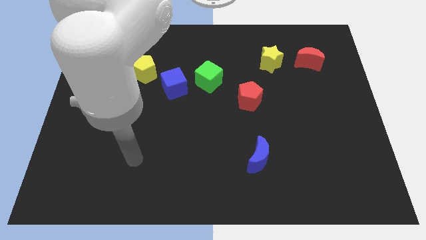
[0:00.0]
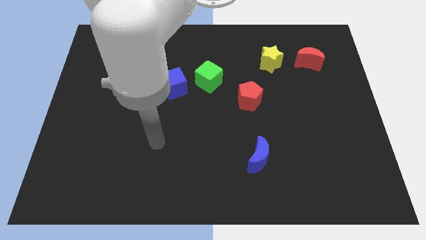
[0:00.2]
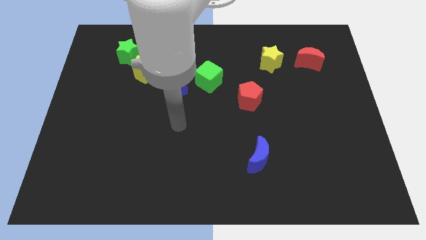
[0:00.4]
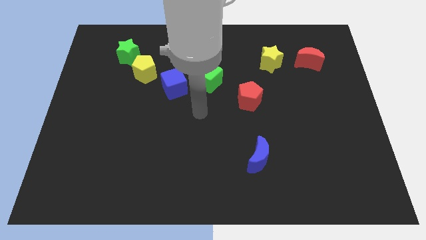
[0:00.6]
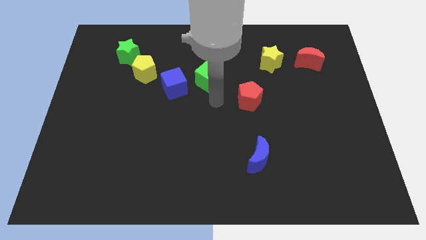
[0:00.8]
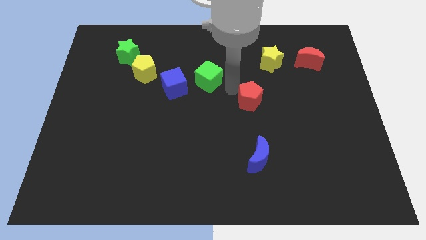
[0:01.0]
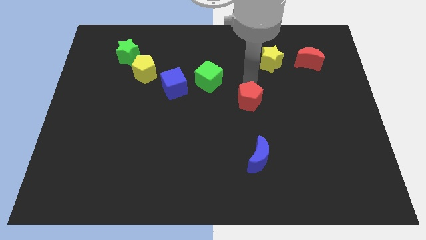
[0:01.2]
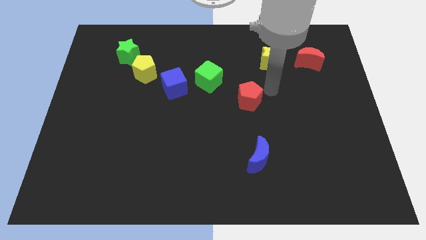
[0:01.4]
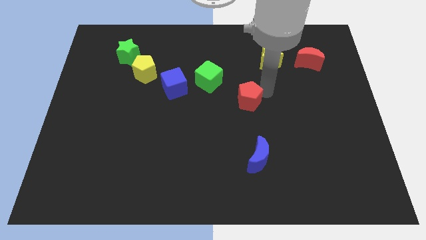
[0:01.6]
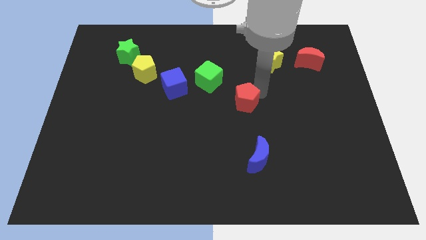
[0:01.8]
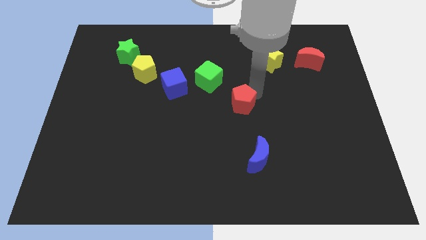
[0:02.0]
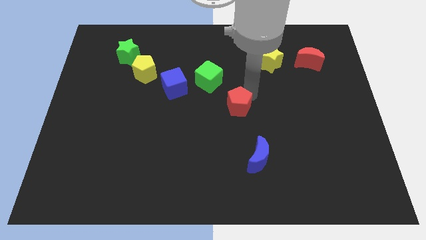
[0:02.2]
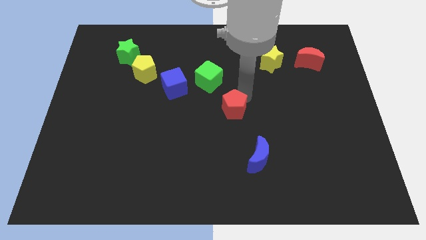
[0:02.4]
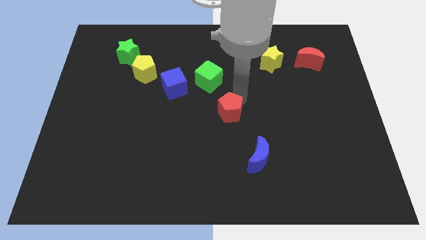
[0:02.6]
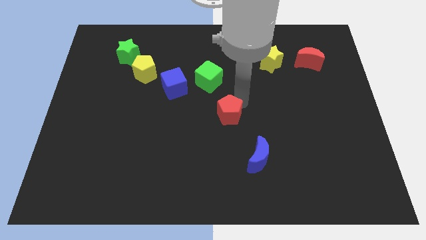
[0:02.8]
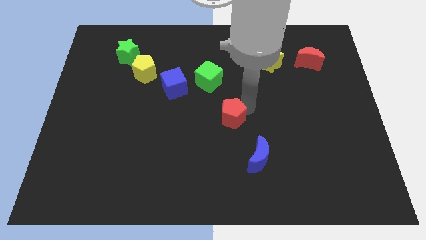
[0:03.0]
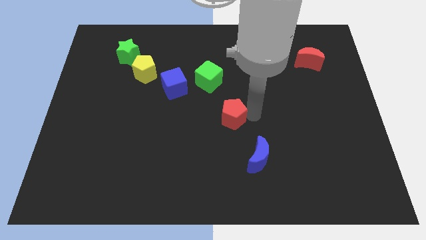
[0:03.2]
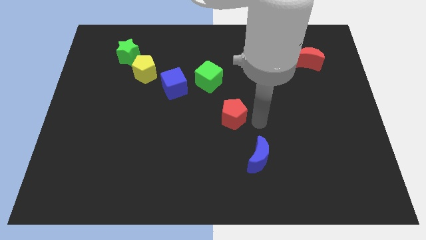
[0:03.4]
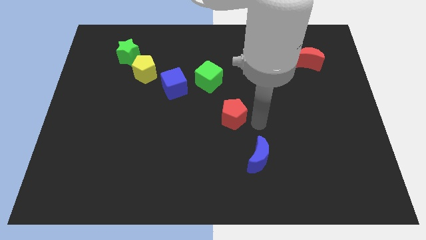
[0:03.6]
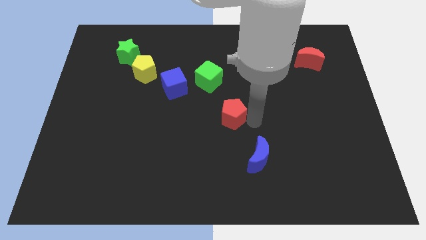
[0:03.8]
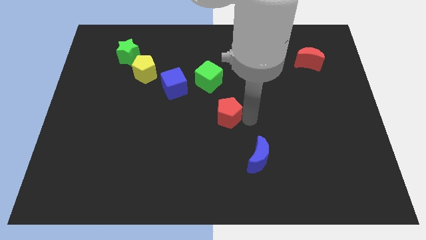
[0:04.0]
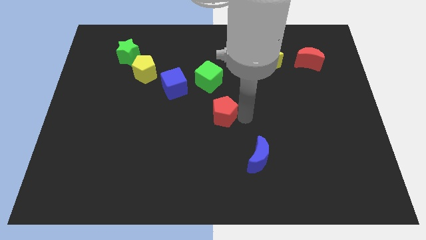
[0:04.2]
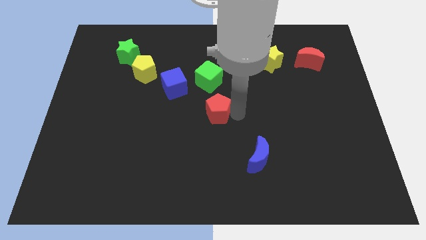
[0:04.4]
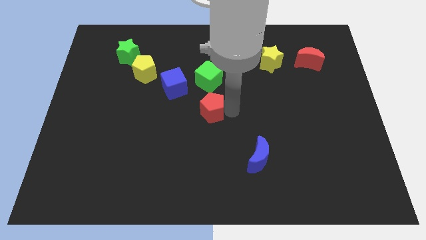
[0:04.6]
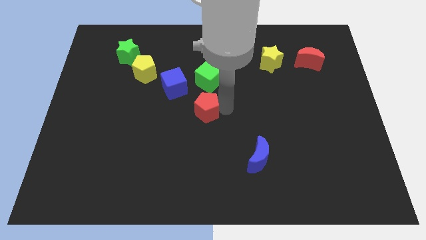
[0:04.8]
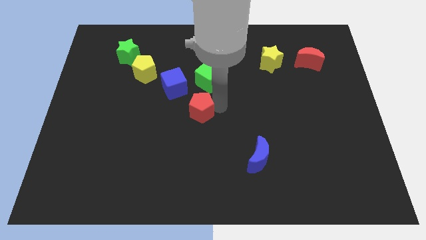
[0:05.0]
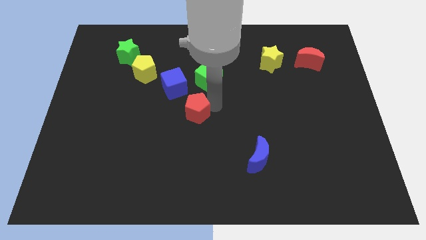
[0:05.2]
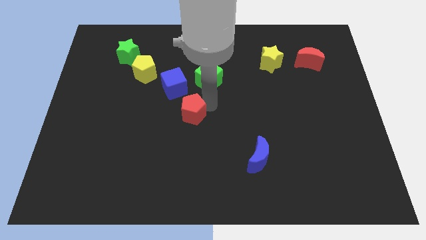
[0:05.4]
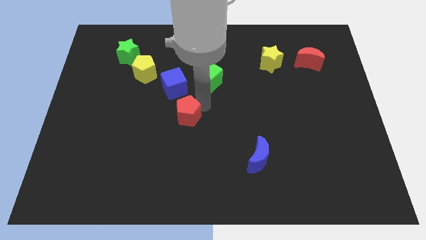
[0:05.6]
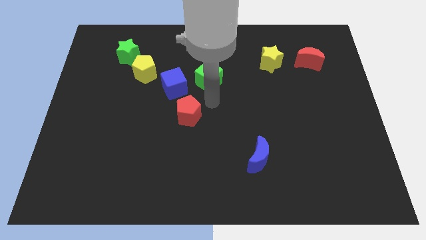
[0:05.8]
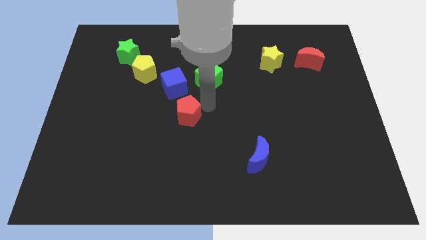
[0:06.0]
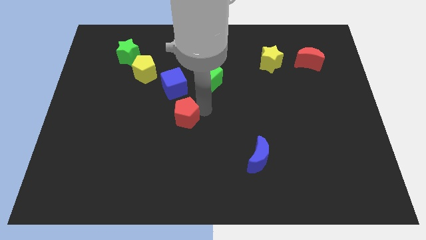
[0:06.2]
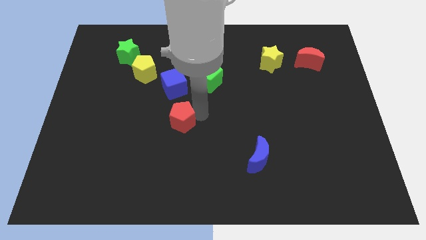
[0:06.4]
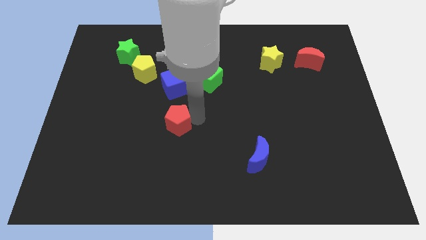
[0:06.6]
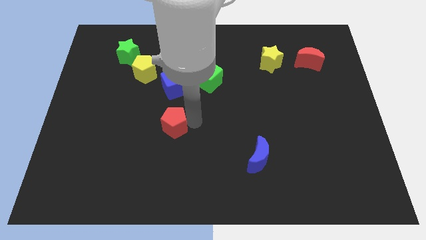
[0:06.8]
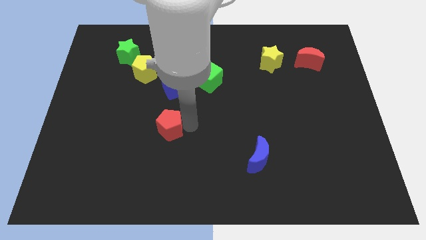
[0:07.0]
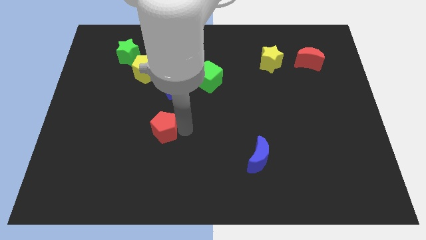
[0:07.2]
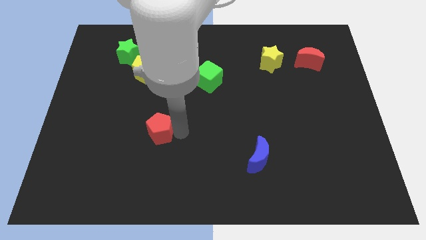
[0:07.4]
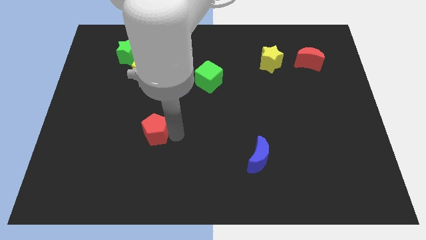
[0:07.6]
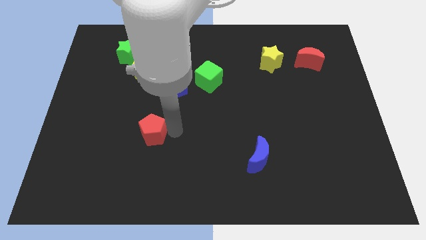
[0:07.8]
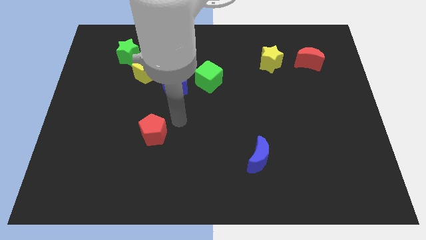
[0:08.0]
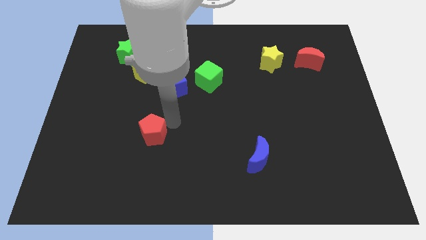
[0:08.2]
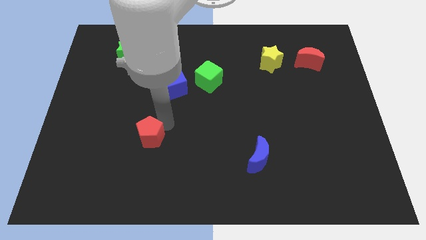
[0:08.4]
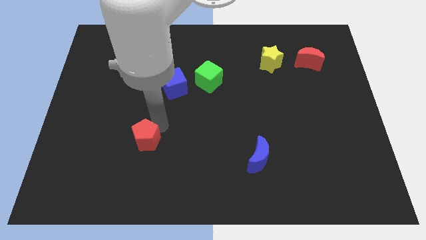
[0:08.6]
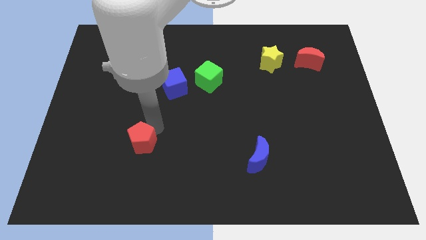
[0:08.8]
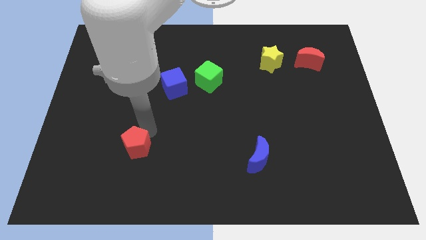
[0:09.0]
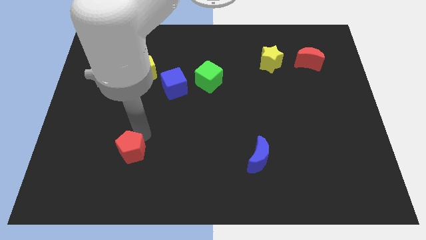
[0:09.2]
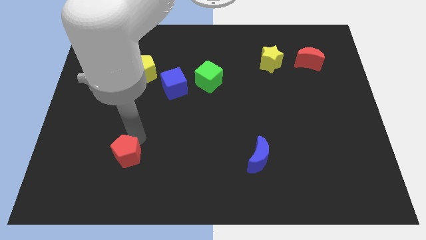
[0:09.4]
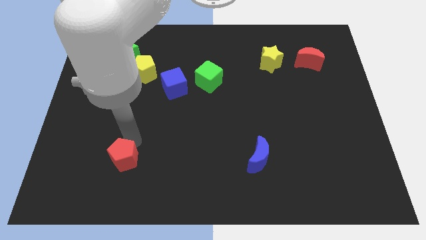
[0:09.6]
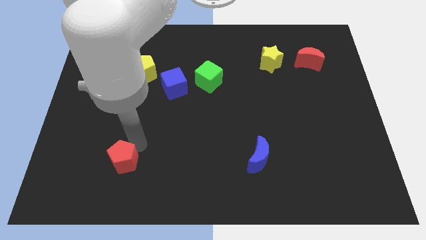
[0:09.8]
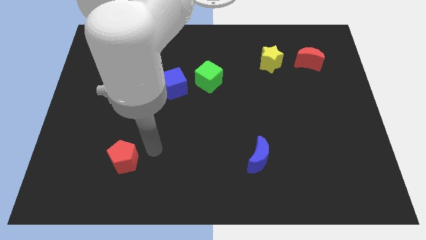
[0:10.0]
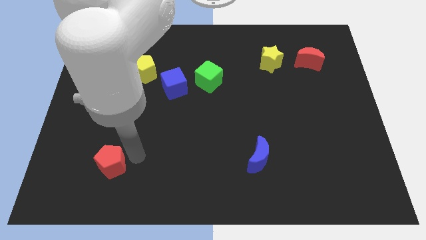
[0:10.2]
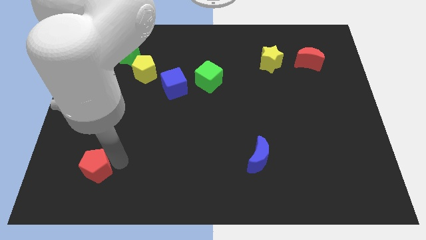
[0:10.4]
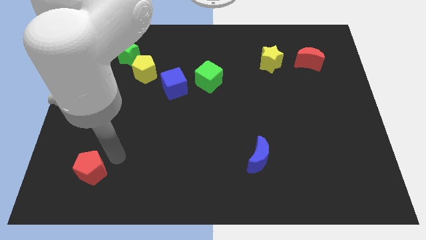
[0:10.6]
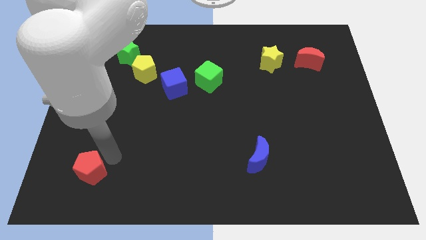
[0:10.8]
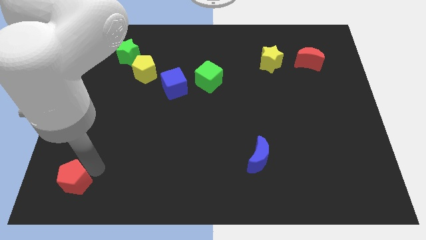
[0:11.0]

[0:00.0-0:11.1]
push the red pentagon to the lower left corner

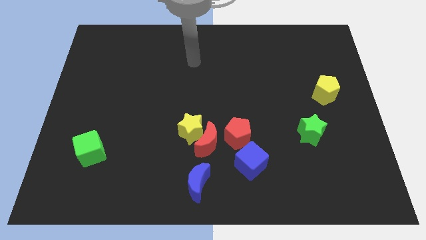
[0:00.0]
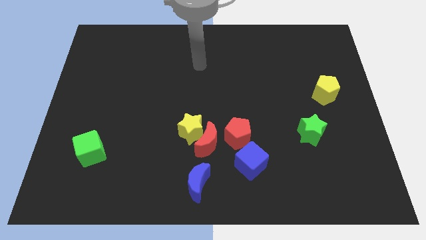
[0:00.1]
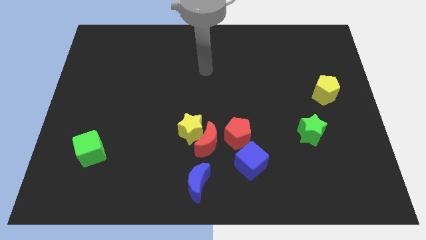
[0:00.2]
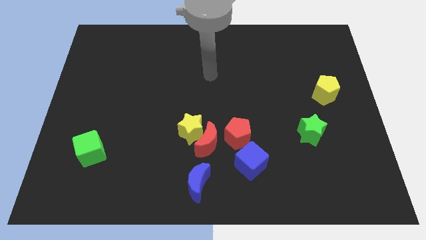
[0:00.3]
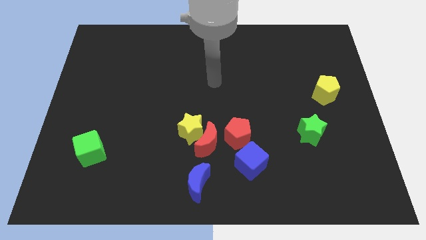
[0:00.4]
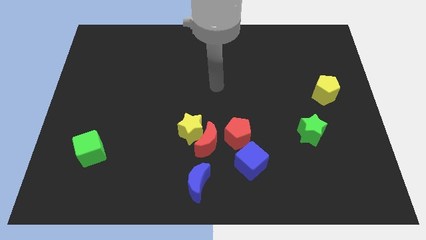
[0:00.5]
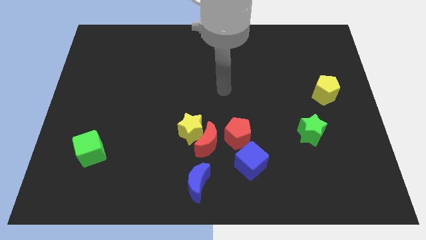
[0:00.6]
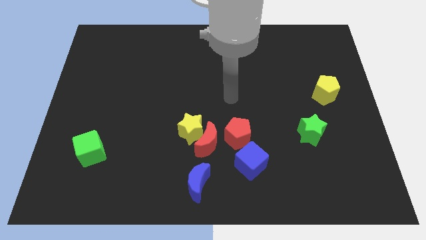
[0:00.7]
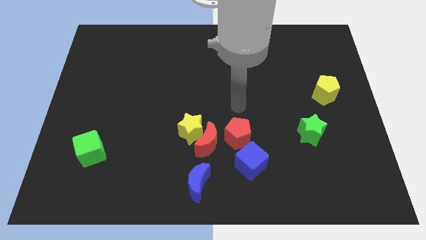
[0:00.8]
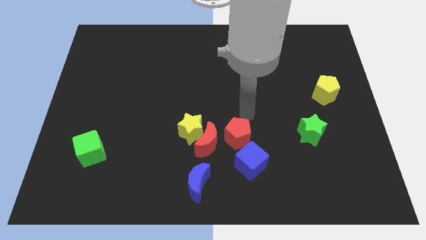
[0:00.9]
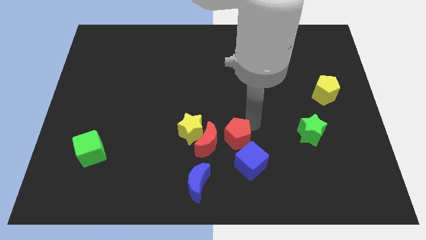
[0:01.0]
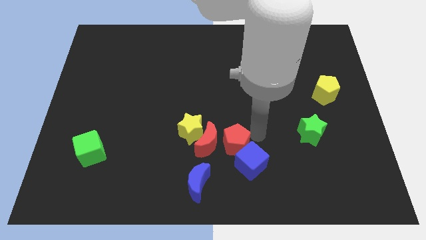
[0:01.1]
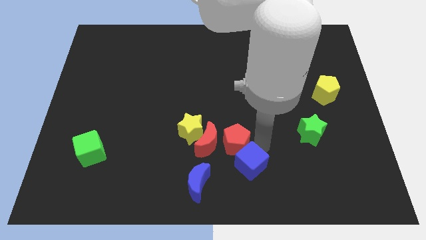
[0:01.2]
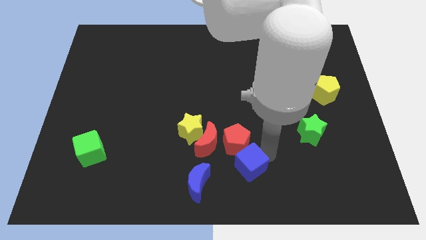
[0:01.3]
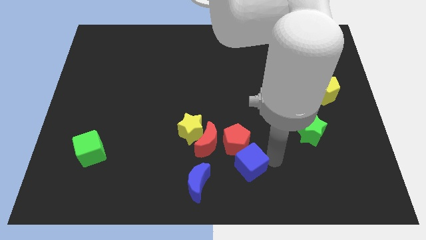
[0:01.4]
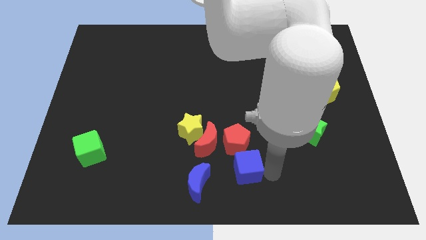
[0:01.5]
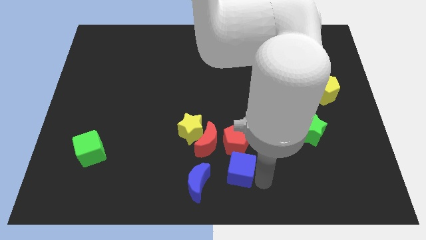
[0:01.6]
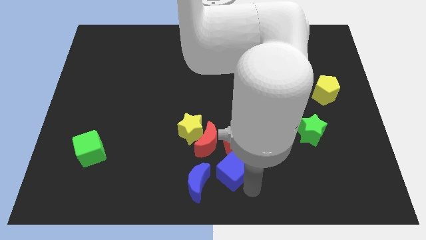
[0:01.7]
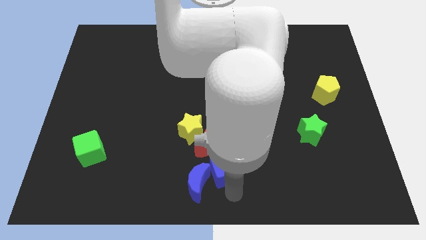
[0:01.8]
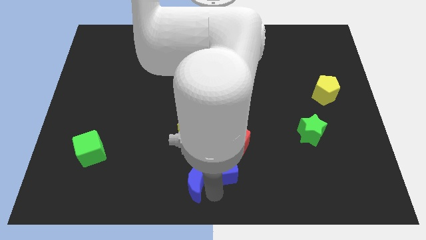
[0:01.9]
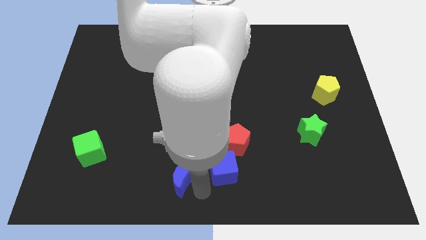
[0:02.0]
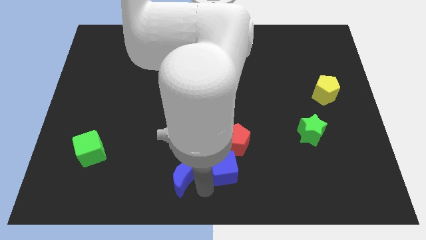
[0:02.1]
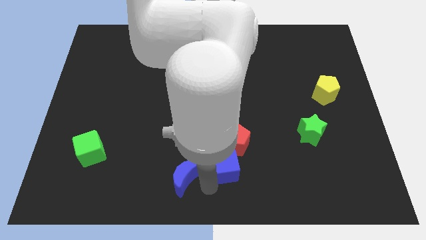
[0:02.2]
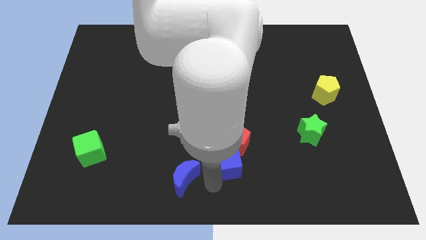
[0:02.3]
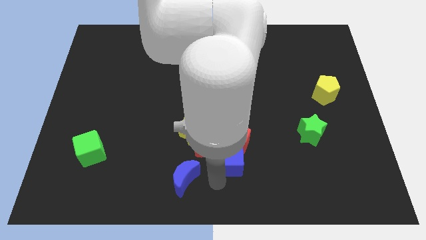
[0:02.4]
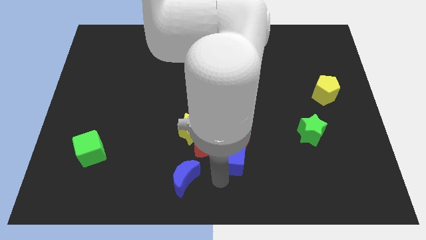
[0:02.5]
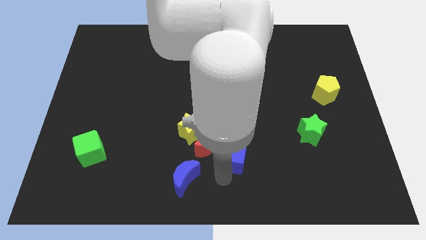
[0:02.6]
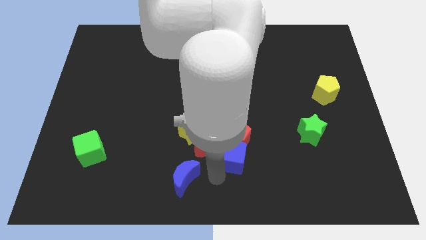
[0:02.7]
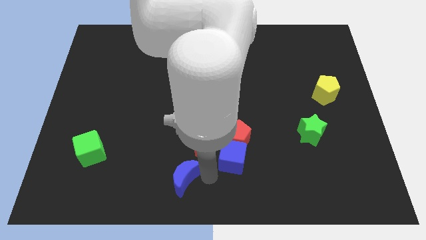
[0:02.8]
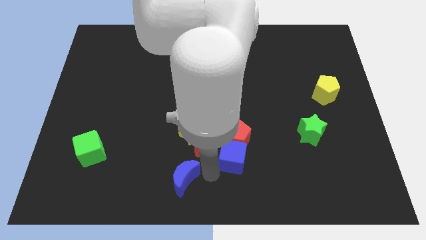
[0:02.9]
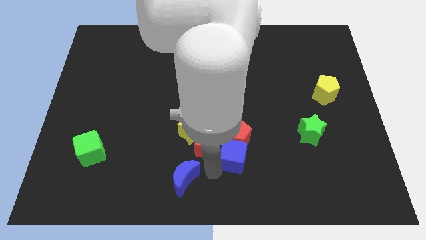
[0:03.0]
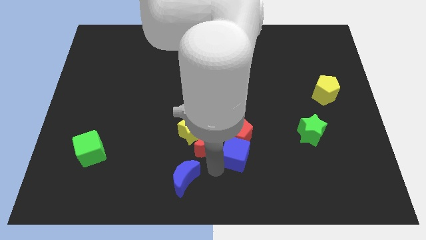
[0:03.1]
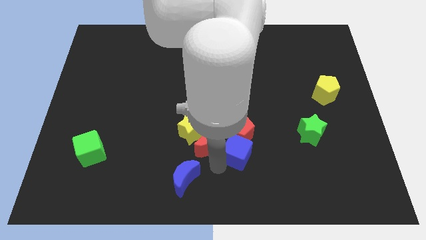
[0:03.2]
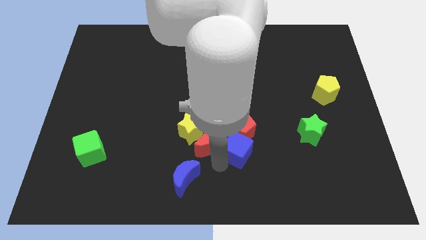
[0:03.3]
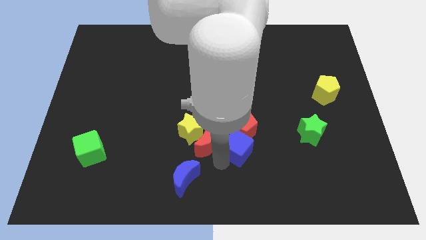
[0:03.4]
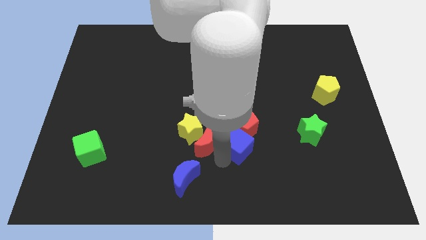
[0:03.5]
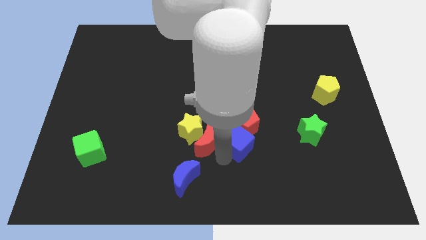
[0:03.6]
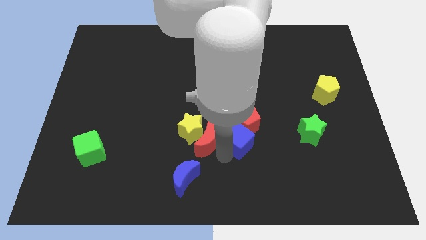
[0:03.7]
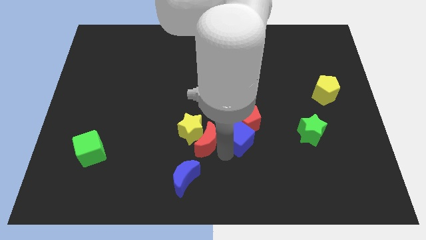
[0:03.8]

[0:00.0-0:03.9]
move the blue cube to the middle
